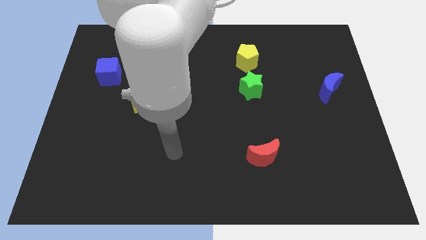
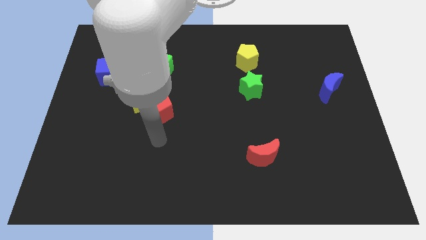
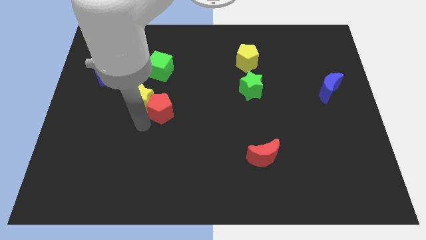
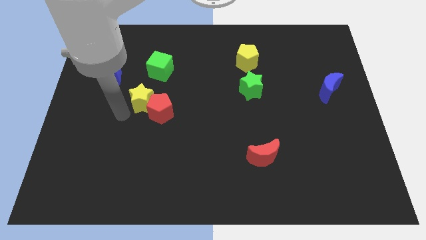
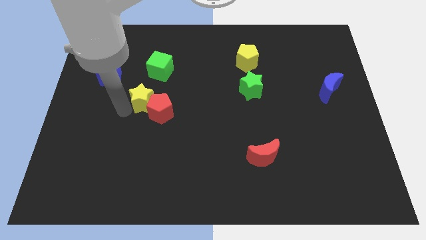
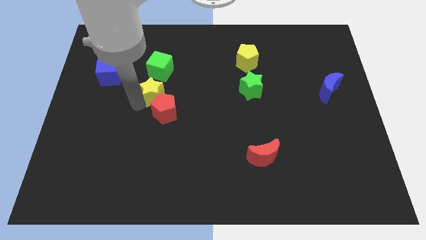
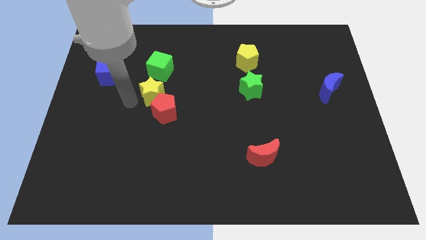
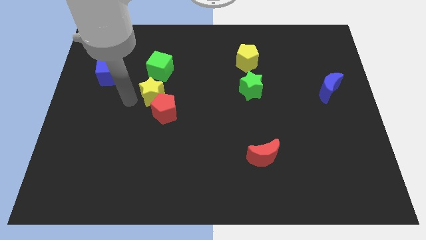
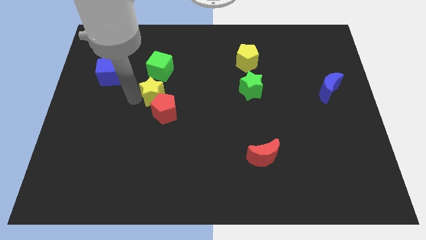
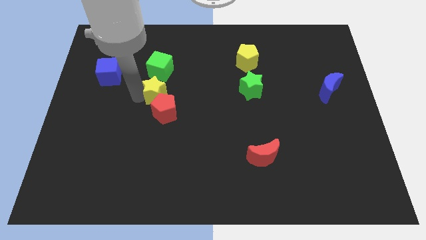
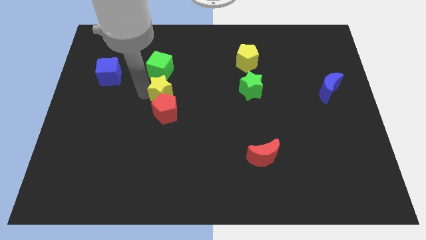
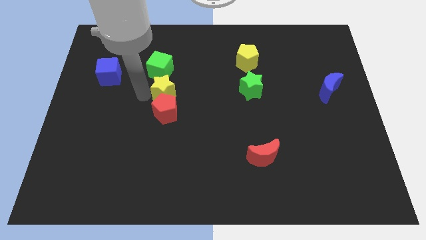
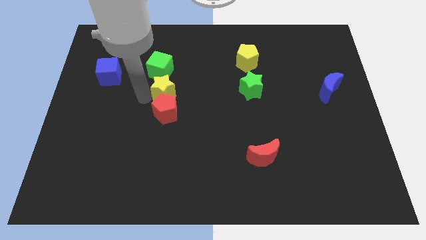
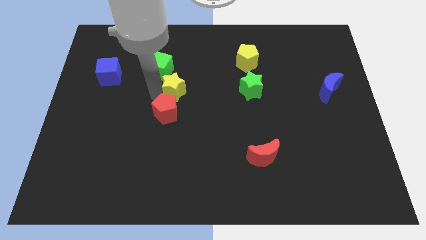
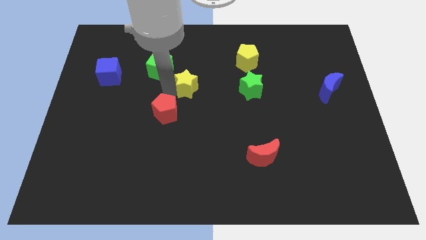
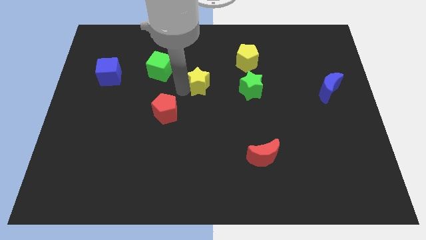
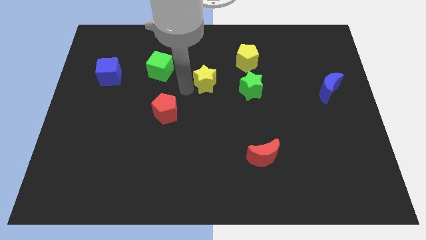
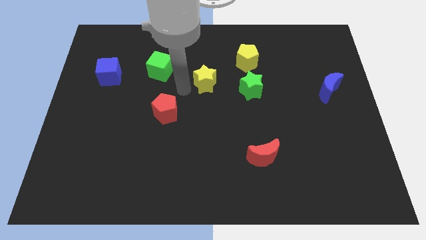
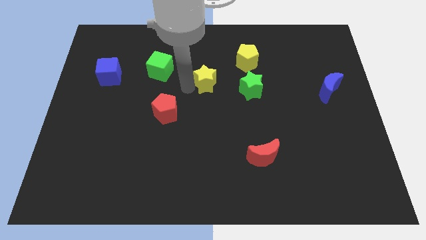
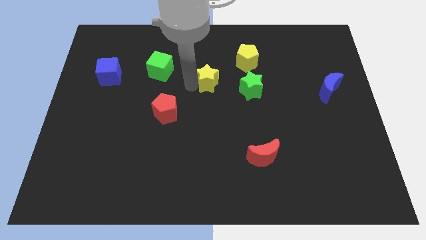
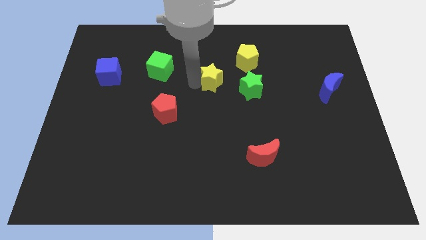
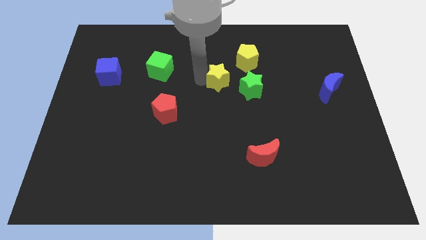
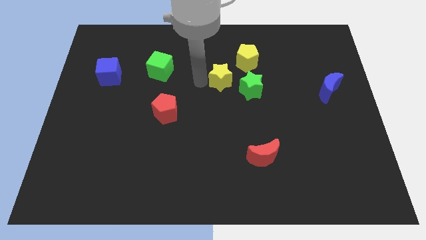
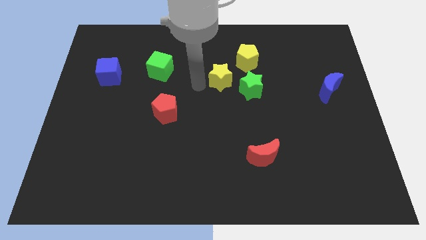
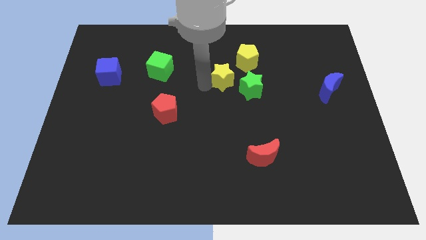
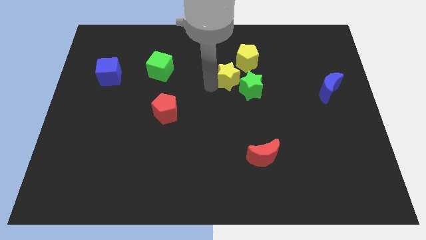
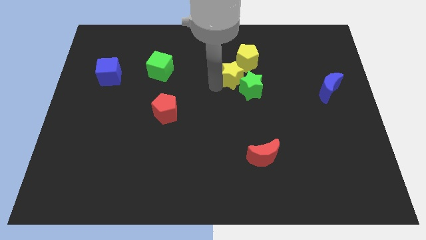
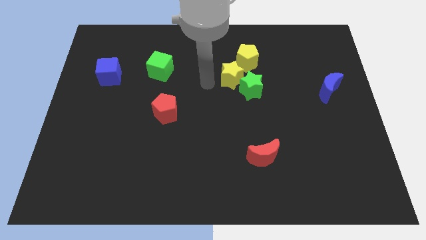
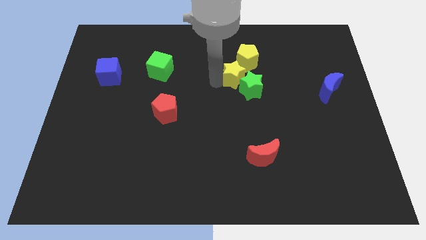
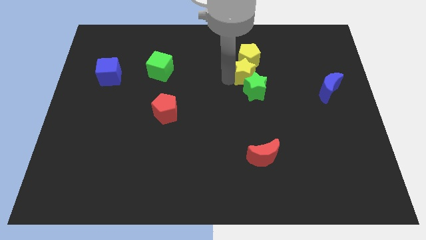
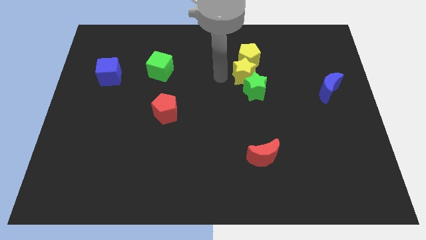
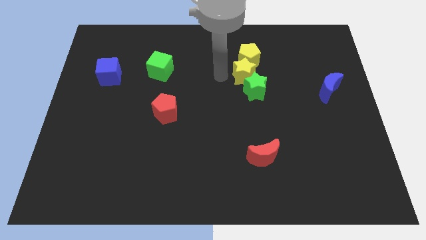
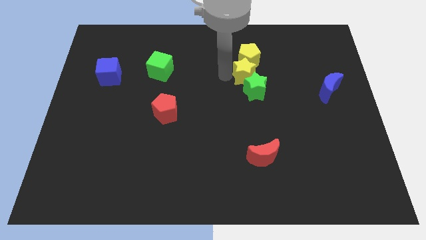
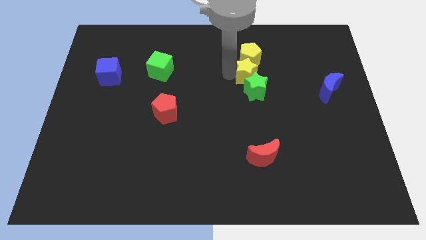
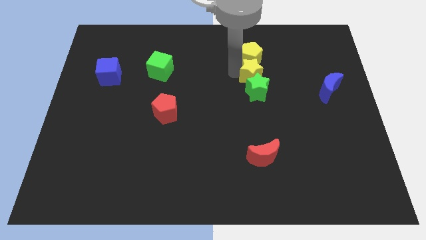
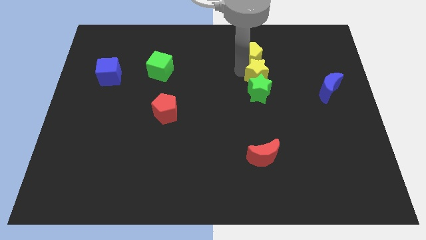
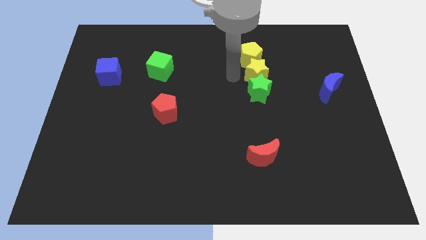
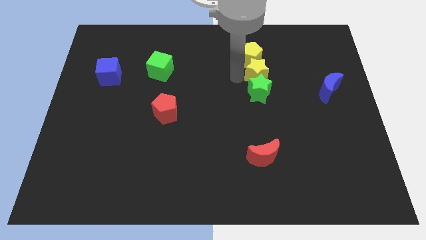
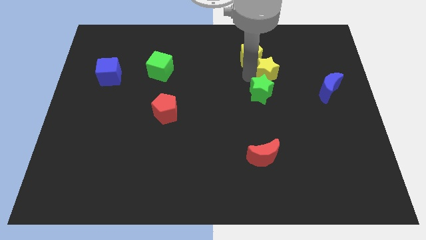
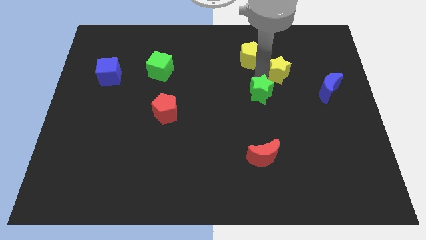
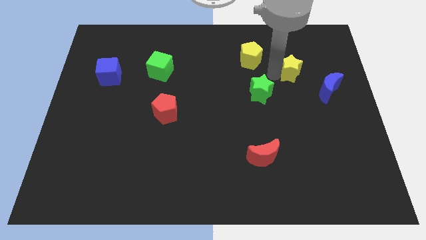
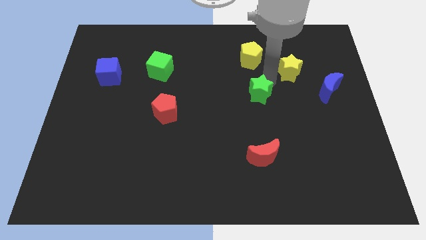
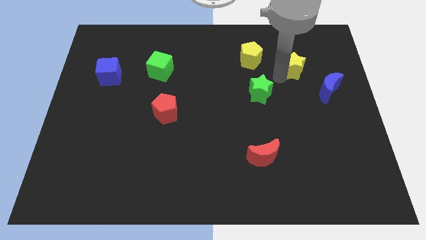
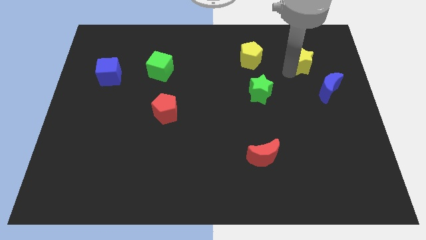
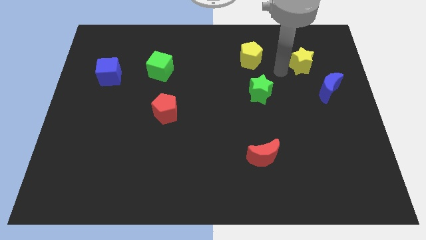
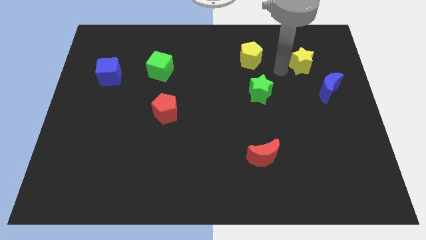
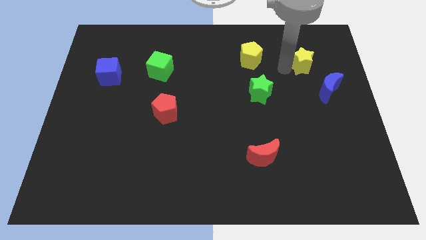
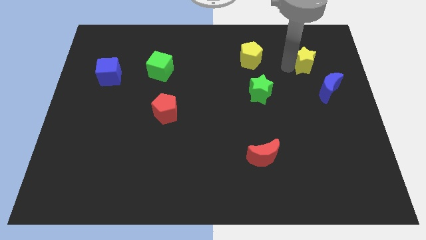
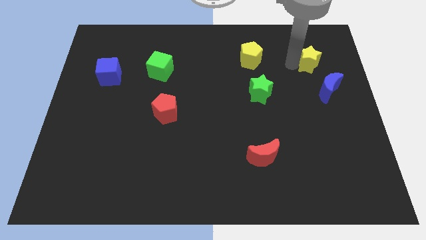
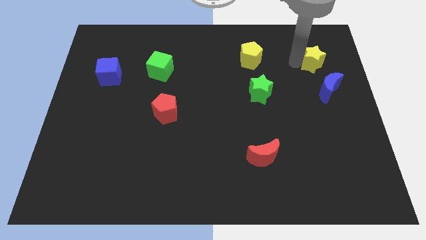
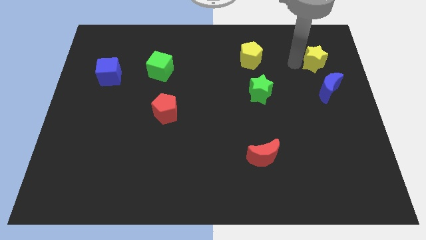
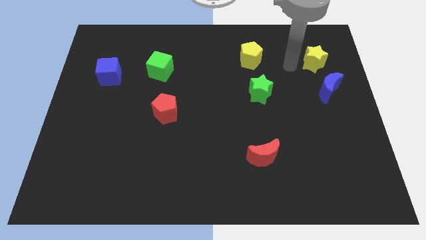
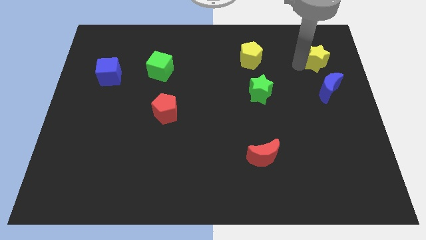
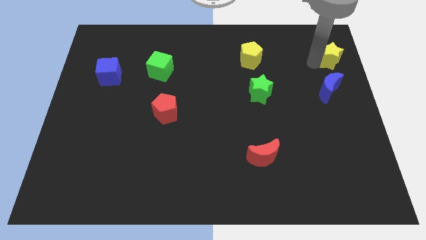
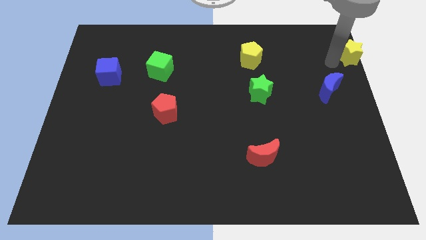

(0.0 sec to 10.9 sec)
push the yellow star to the top right of the board
